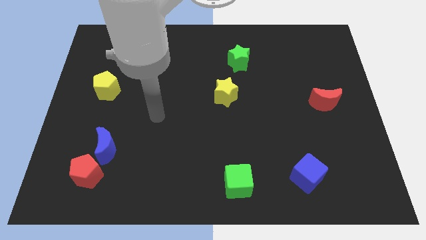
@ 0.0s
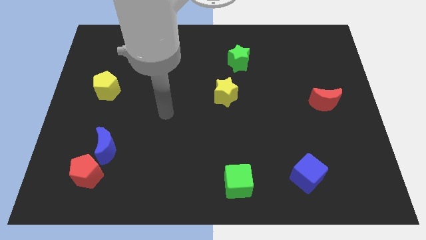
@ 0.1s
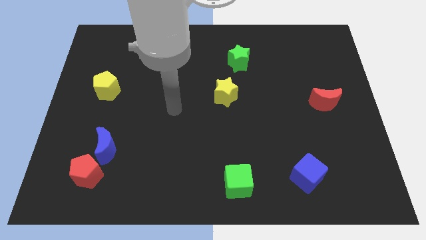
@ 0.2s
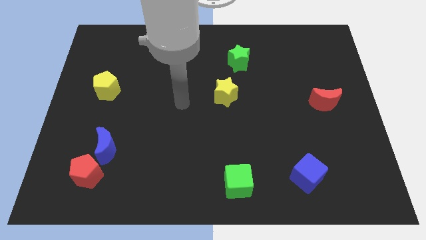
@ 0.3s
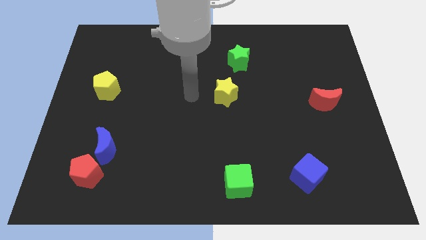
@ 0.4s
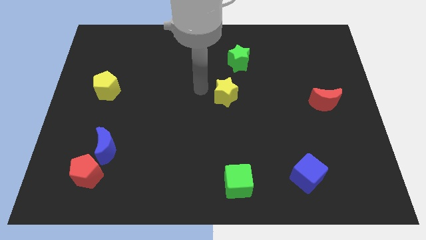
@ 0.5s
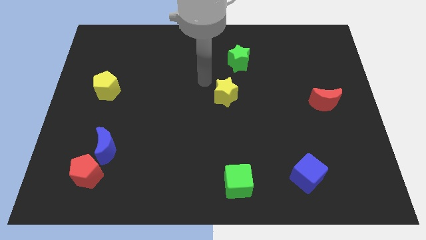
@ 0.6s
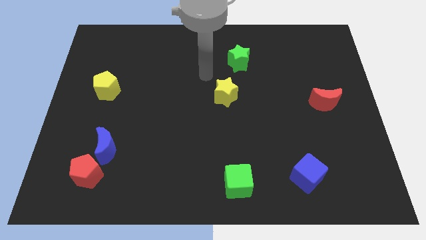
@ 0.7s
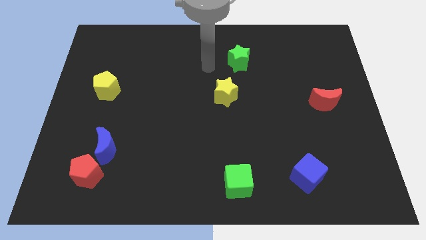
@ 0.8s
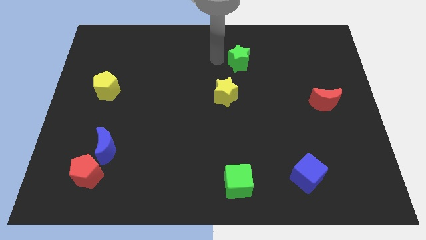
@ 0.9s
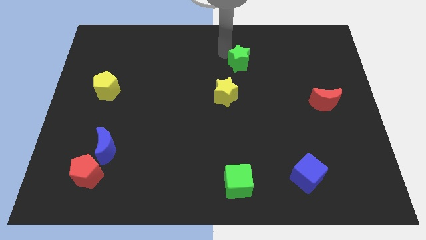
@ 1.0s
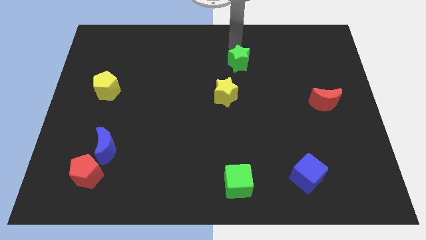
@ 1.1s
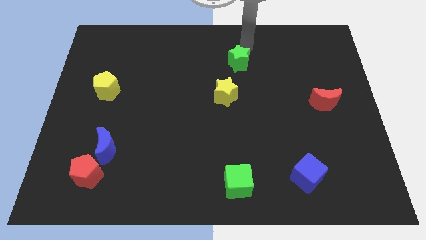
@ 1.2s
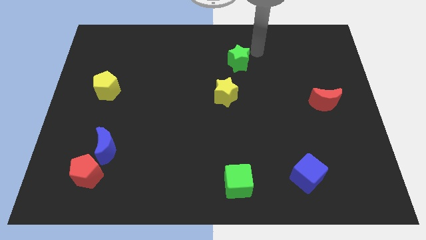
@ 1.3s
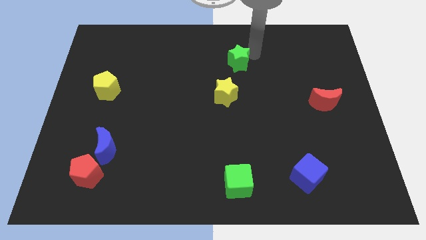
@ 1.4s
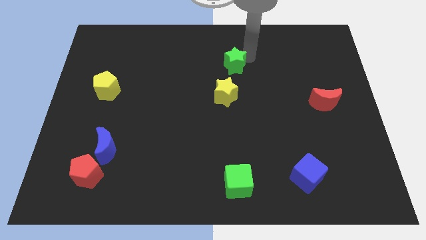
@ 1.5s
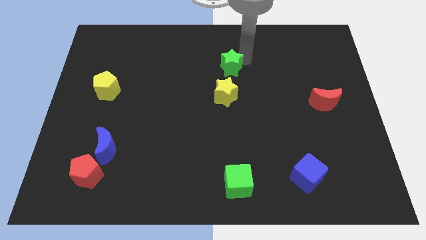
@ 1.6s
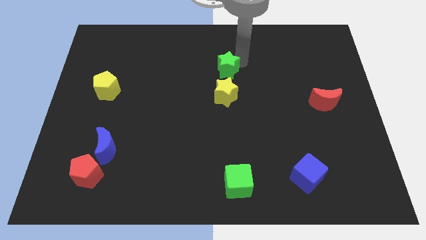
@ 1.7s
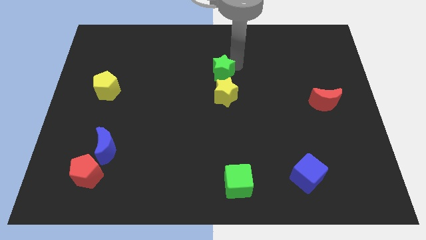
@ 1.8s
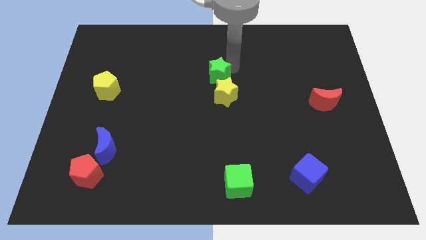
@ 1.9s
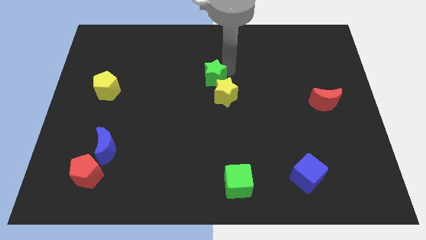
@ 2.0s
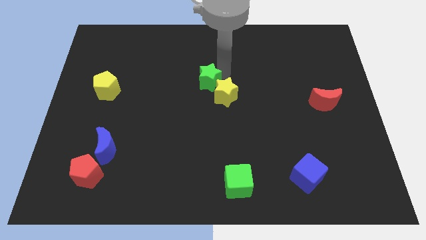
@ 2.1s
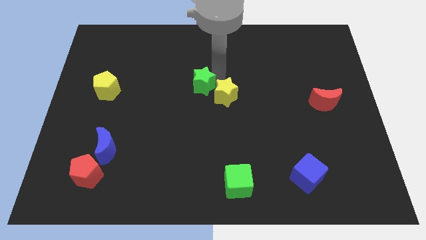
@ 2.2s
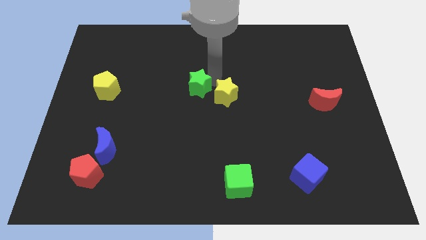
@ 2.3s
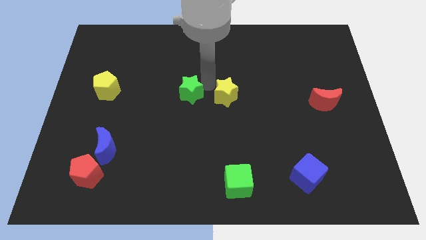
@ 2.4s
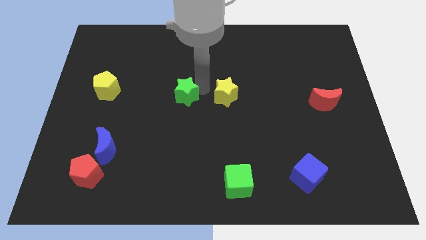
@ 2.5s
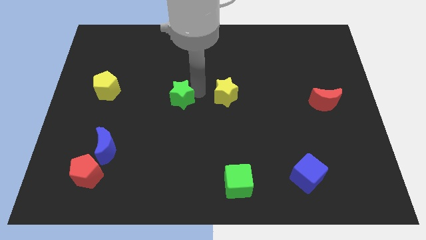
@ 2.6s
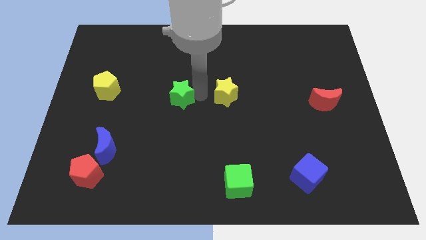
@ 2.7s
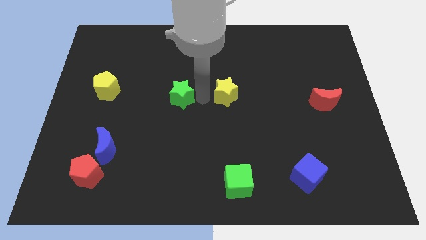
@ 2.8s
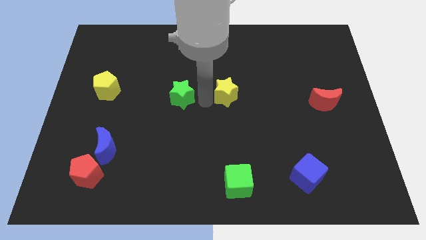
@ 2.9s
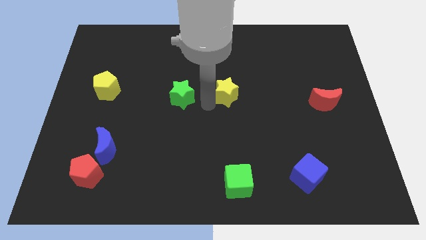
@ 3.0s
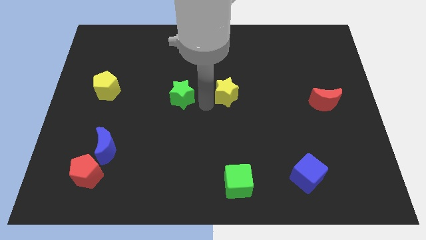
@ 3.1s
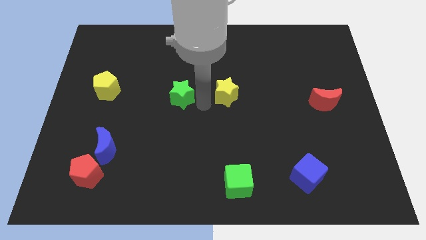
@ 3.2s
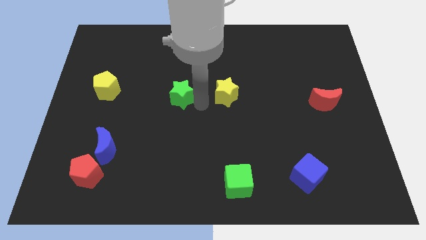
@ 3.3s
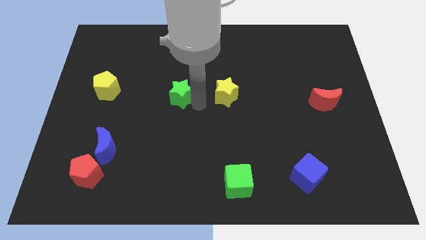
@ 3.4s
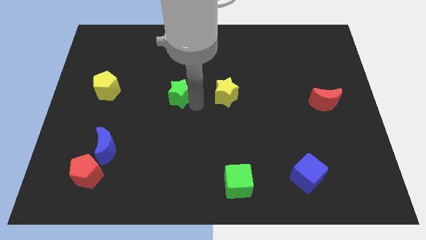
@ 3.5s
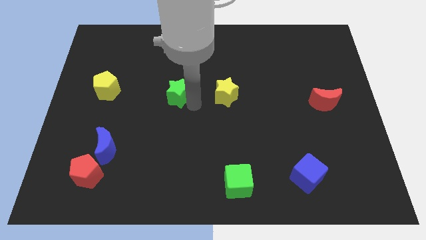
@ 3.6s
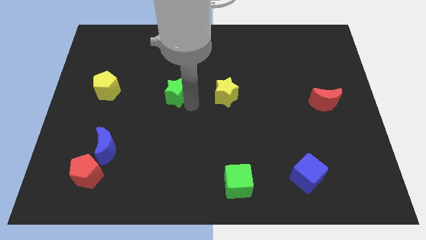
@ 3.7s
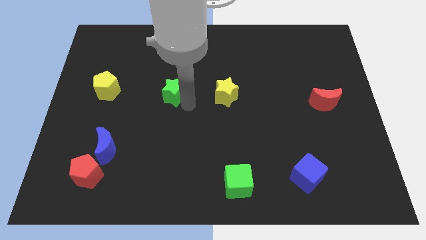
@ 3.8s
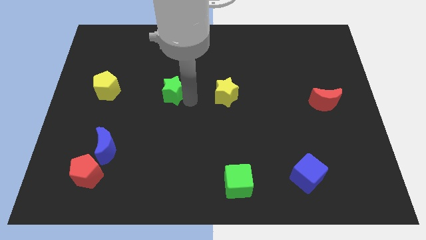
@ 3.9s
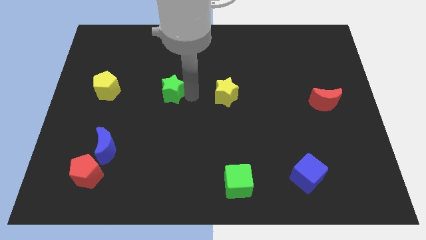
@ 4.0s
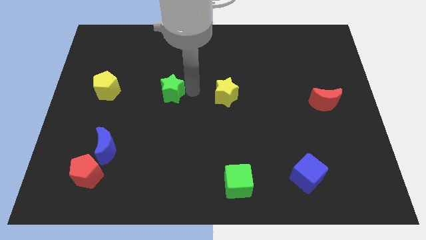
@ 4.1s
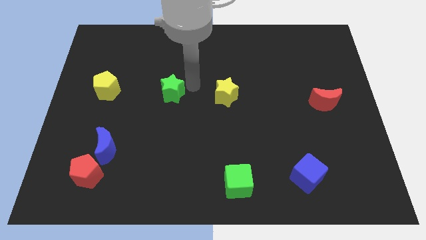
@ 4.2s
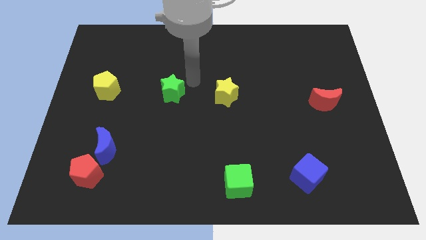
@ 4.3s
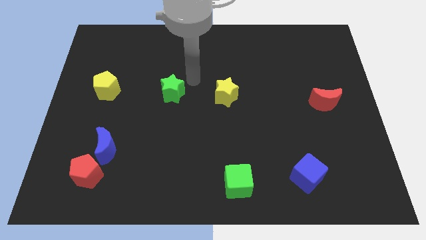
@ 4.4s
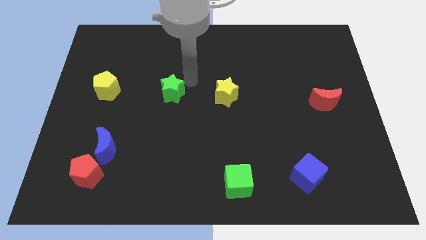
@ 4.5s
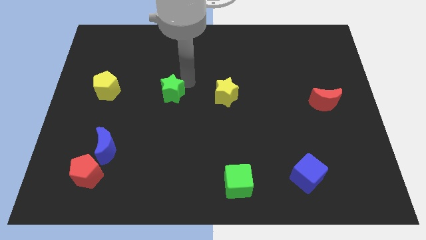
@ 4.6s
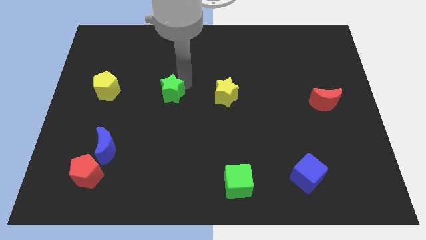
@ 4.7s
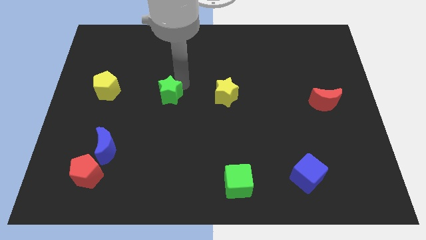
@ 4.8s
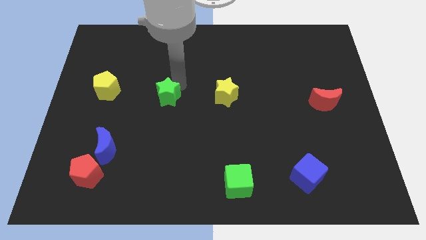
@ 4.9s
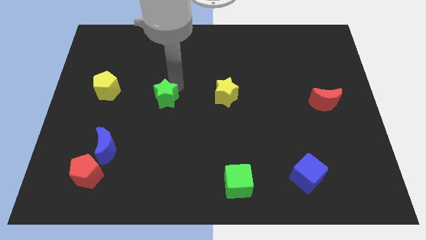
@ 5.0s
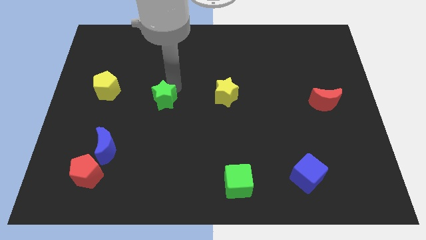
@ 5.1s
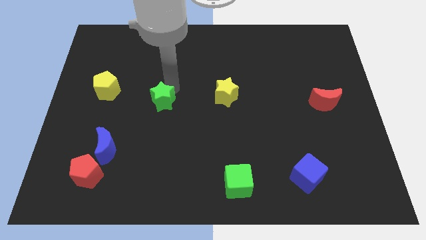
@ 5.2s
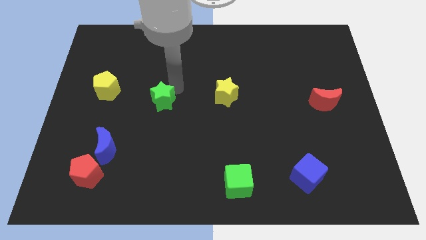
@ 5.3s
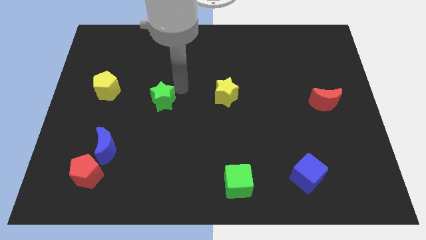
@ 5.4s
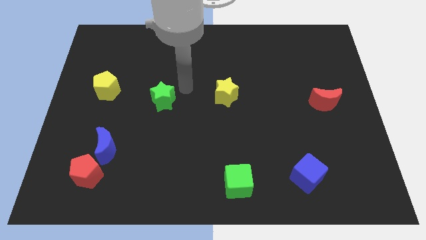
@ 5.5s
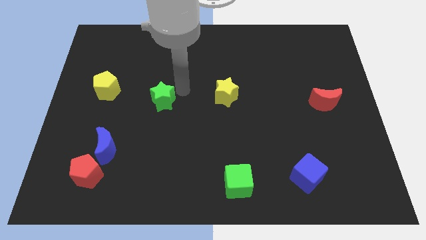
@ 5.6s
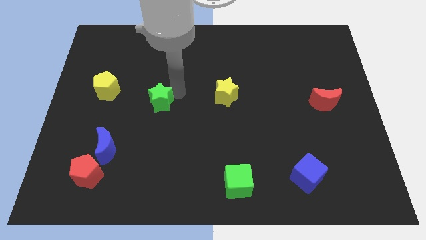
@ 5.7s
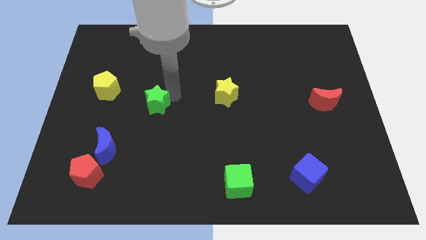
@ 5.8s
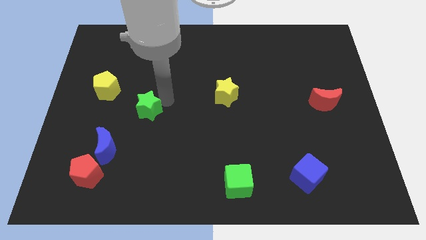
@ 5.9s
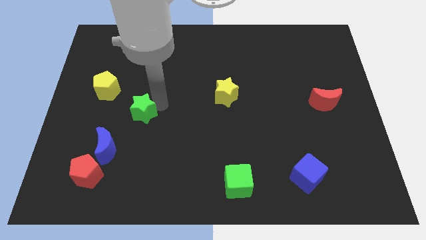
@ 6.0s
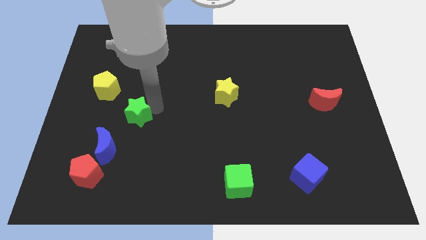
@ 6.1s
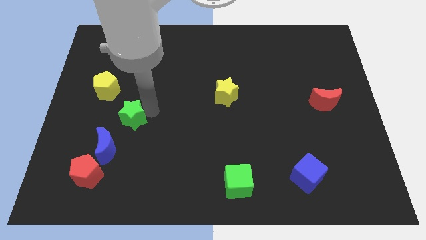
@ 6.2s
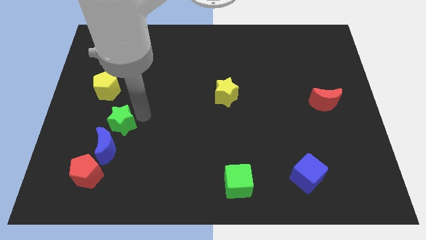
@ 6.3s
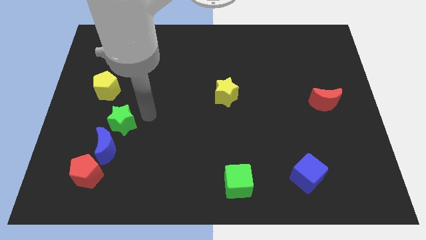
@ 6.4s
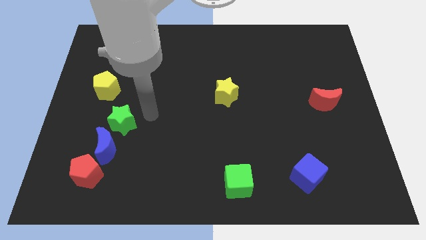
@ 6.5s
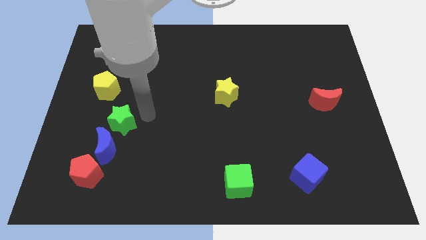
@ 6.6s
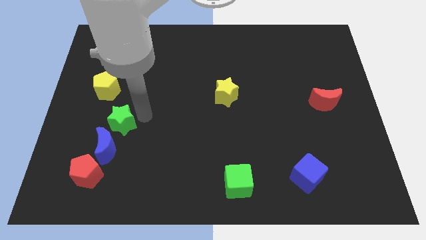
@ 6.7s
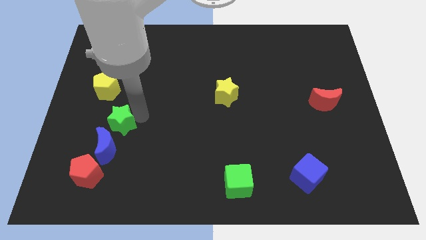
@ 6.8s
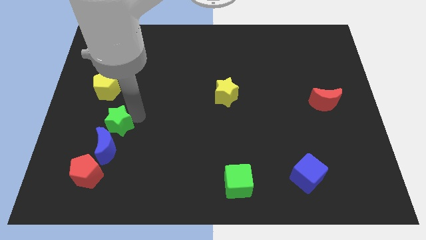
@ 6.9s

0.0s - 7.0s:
put the green star above the red pentagon
